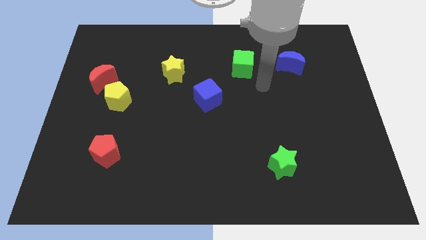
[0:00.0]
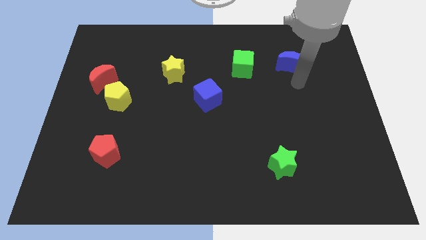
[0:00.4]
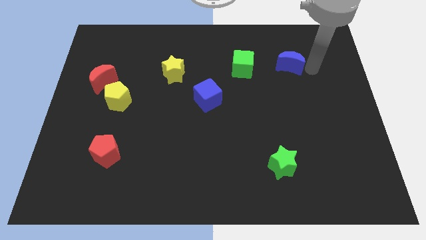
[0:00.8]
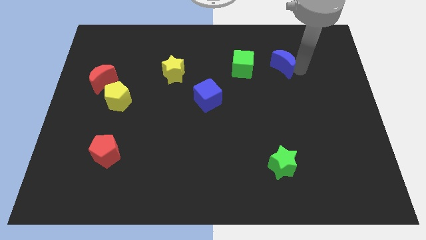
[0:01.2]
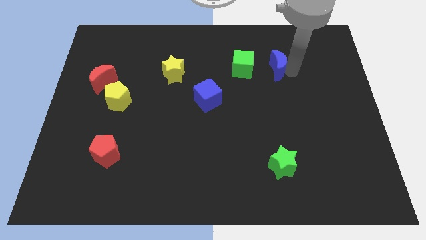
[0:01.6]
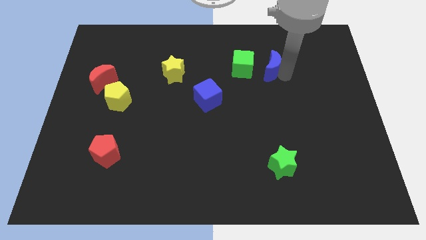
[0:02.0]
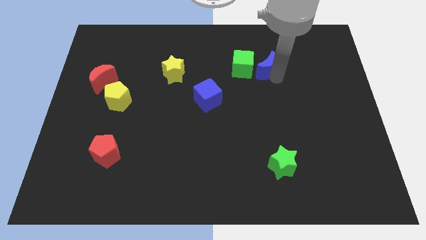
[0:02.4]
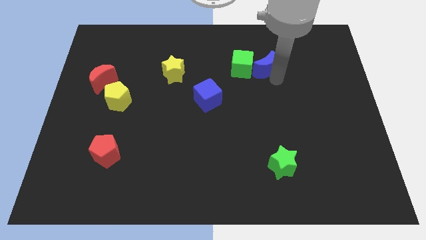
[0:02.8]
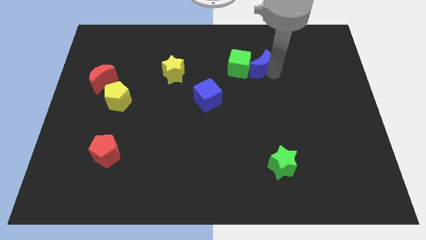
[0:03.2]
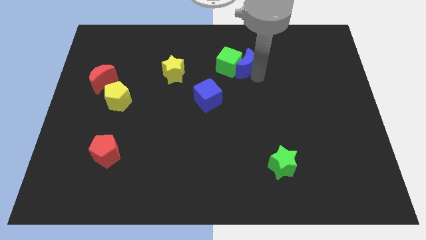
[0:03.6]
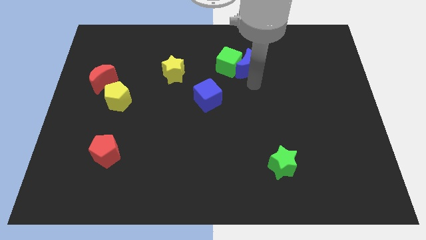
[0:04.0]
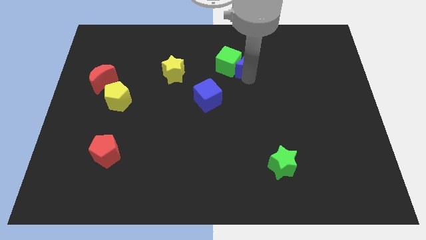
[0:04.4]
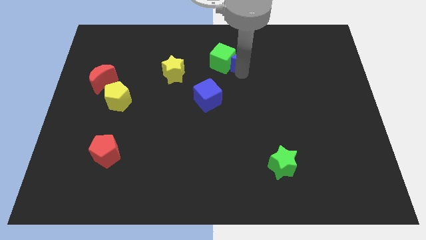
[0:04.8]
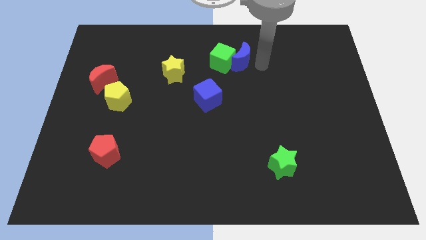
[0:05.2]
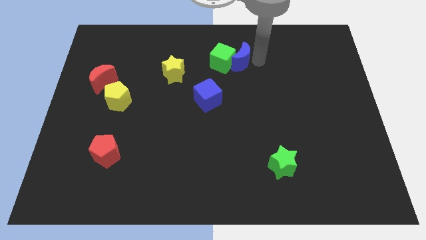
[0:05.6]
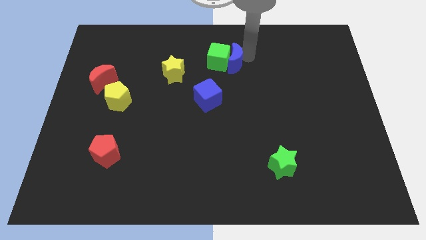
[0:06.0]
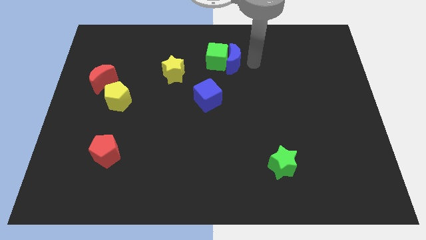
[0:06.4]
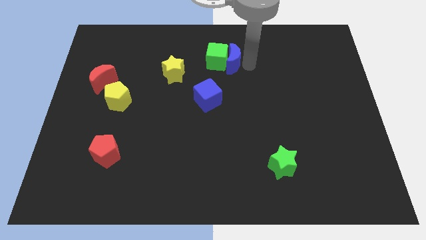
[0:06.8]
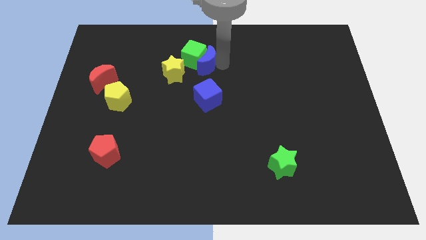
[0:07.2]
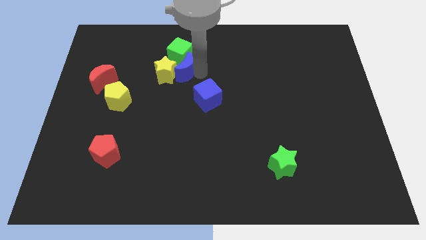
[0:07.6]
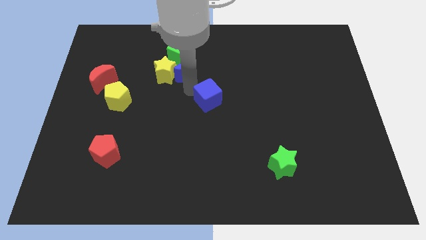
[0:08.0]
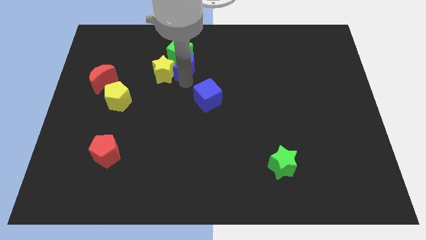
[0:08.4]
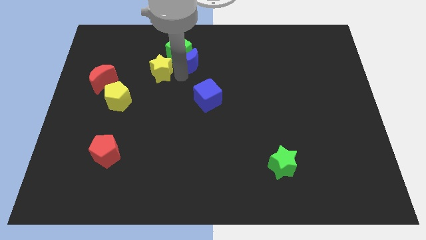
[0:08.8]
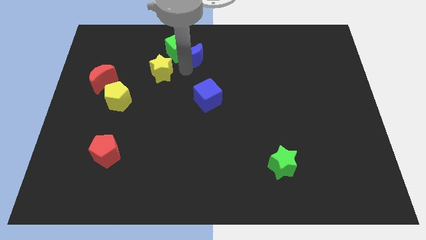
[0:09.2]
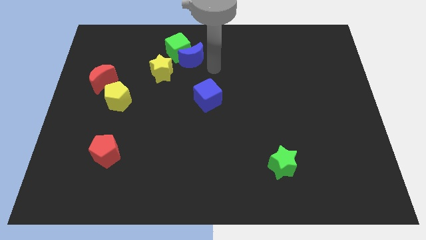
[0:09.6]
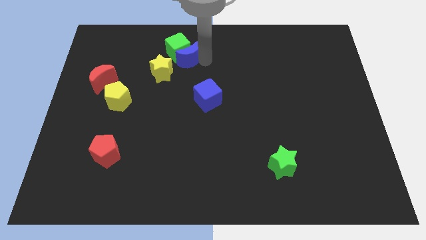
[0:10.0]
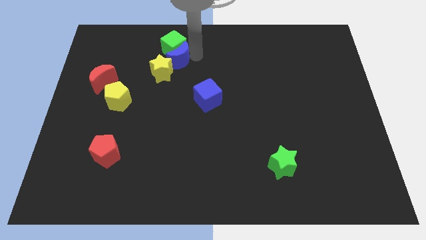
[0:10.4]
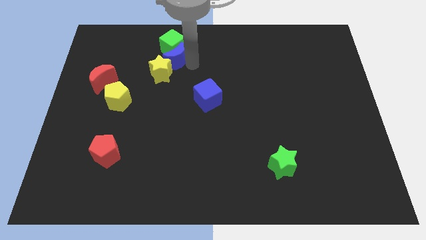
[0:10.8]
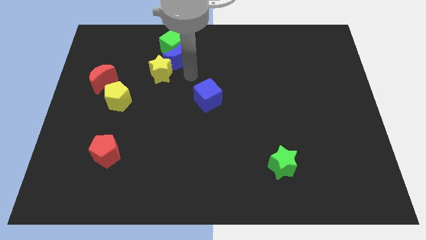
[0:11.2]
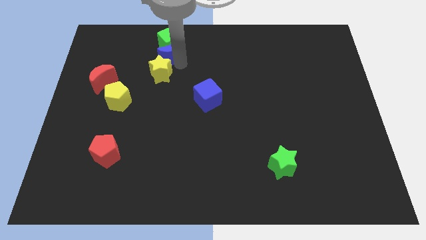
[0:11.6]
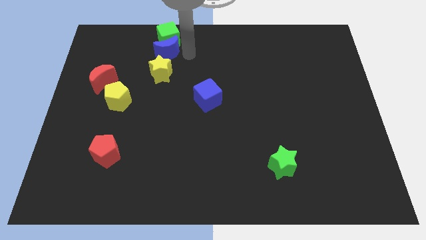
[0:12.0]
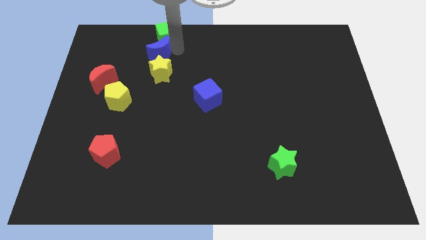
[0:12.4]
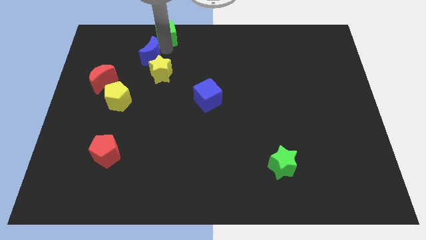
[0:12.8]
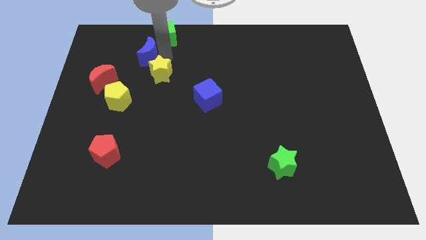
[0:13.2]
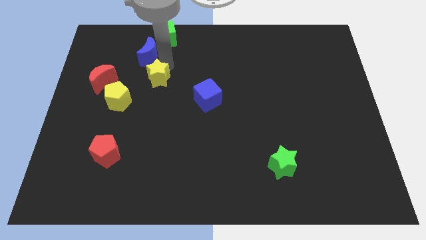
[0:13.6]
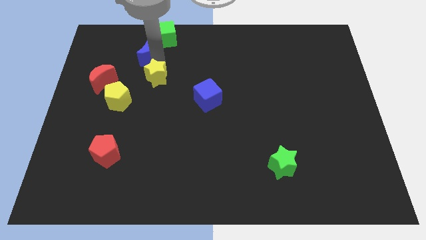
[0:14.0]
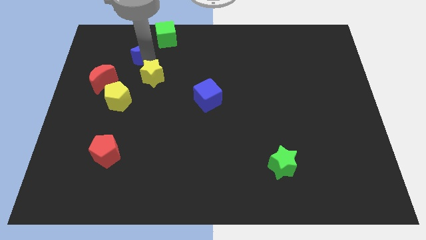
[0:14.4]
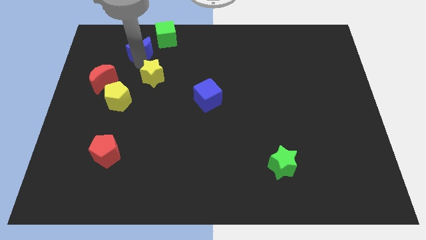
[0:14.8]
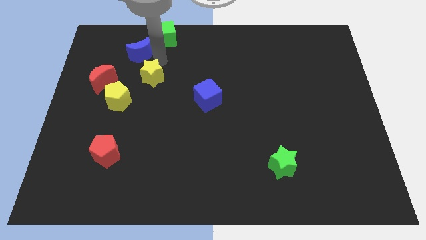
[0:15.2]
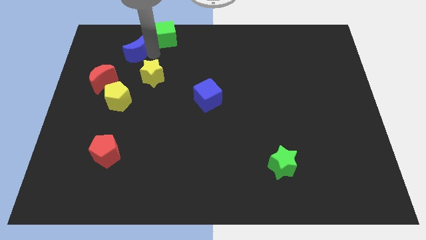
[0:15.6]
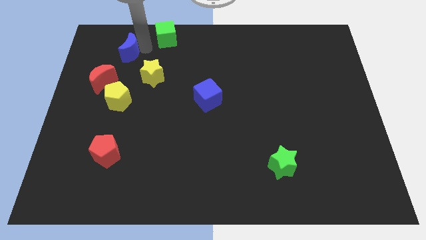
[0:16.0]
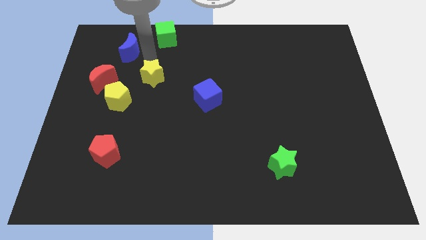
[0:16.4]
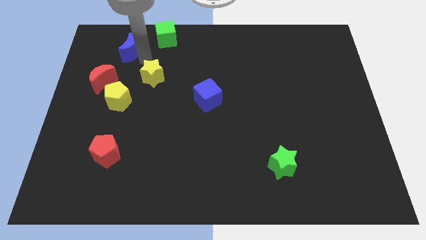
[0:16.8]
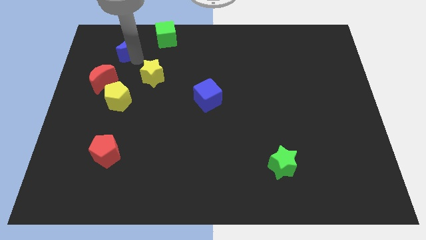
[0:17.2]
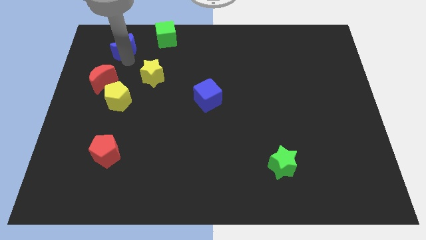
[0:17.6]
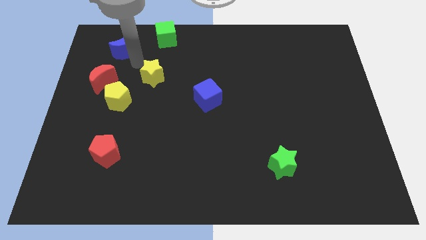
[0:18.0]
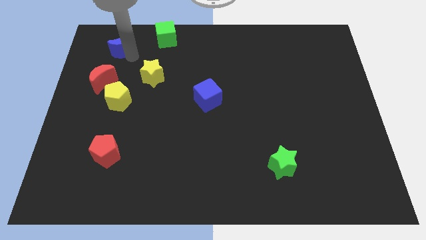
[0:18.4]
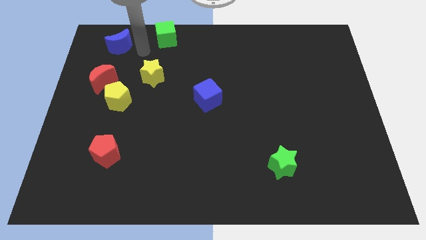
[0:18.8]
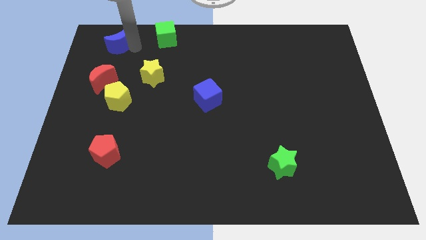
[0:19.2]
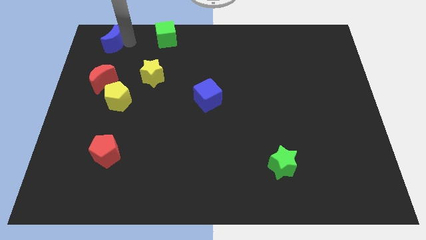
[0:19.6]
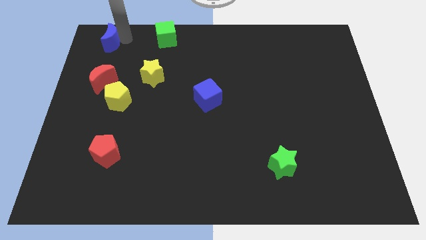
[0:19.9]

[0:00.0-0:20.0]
push the blue moon to the top left

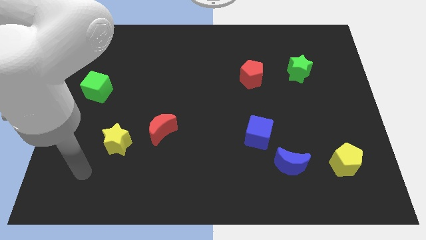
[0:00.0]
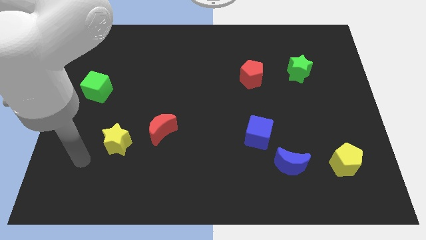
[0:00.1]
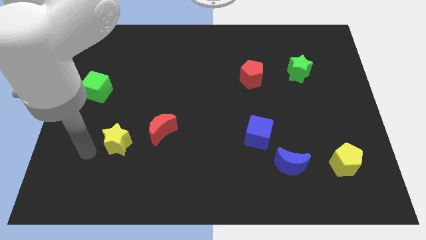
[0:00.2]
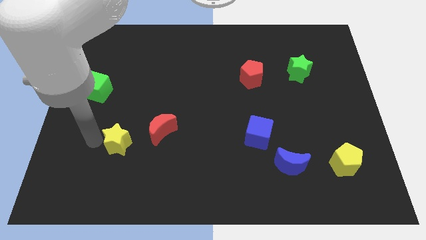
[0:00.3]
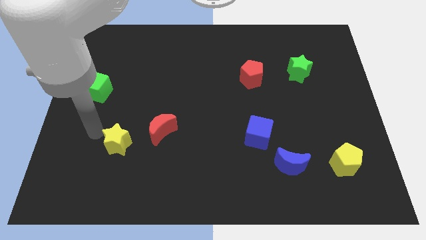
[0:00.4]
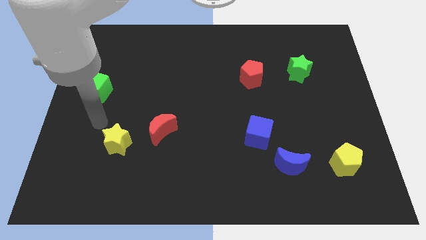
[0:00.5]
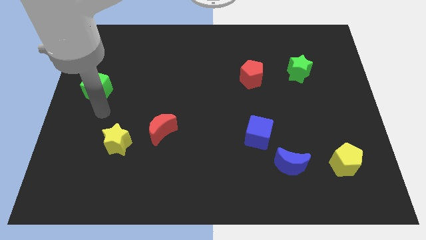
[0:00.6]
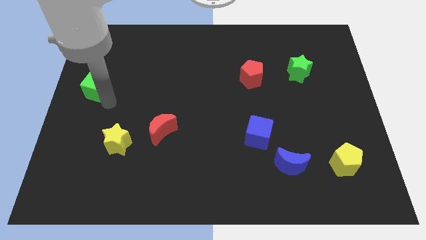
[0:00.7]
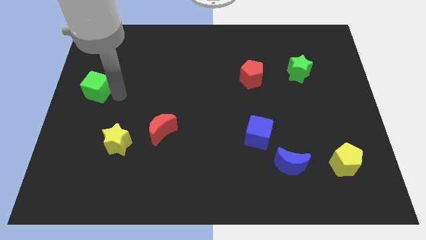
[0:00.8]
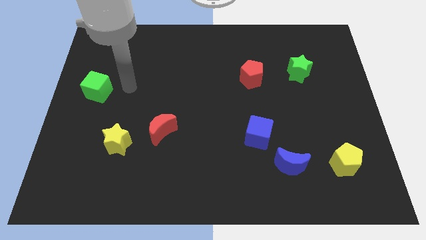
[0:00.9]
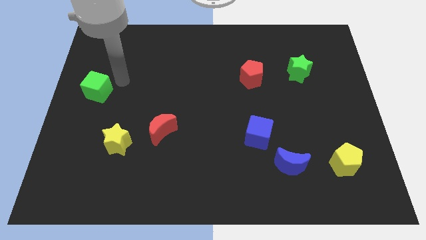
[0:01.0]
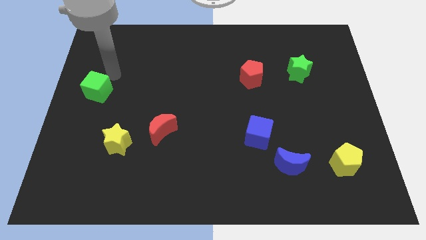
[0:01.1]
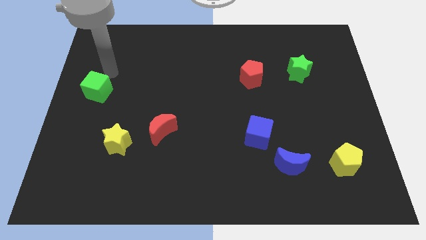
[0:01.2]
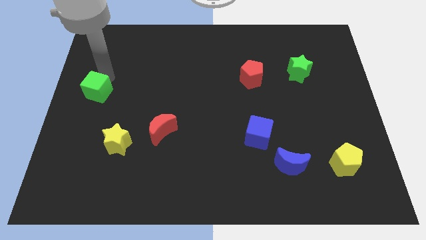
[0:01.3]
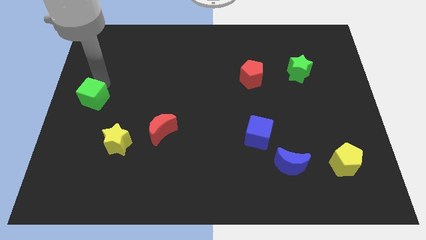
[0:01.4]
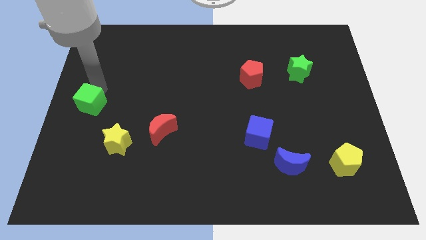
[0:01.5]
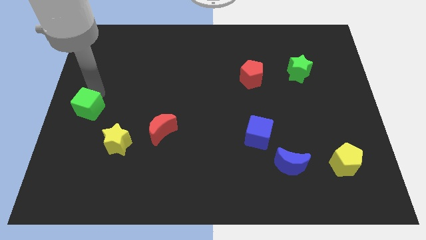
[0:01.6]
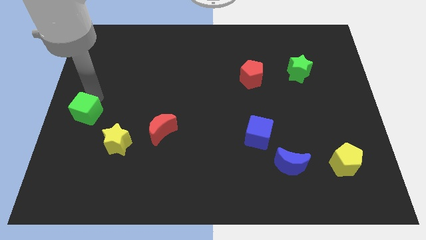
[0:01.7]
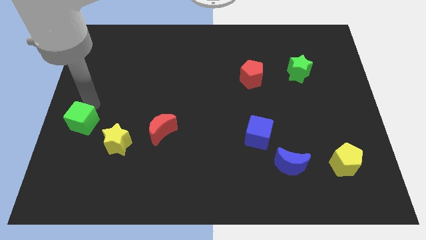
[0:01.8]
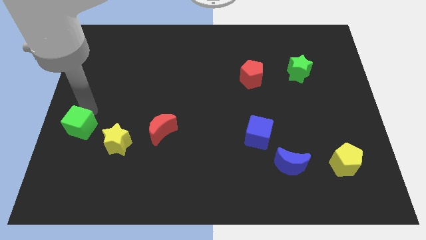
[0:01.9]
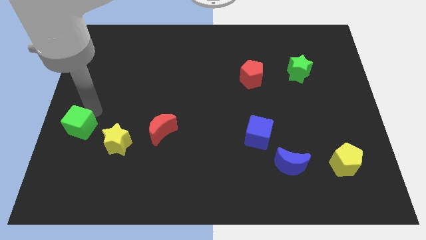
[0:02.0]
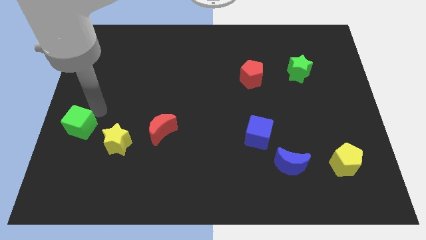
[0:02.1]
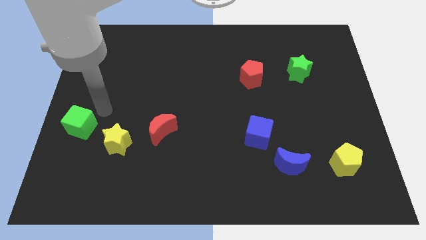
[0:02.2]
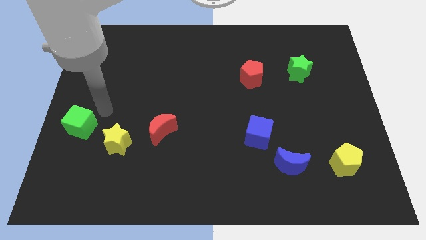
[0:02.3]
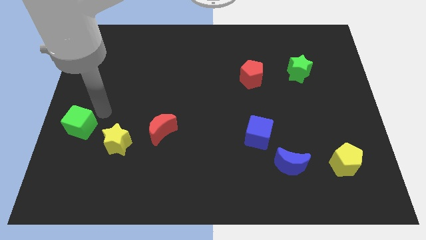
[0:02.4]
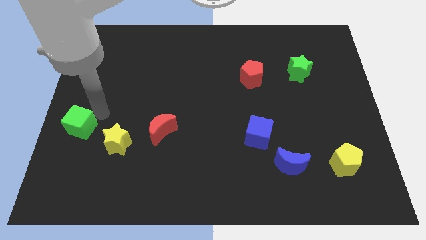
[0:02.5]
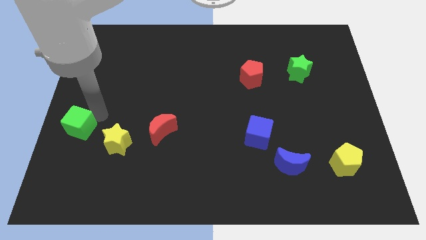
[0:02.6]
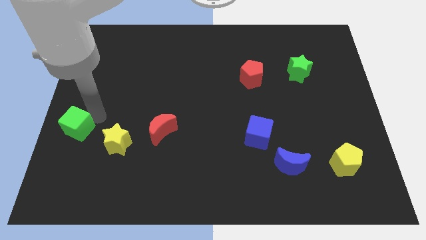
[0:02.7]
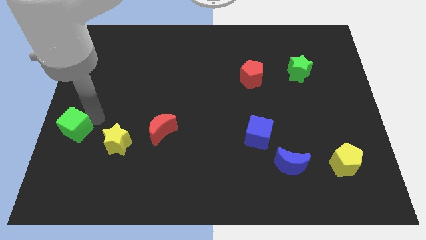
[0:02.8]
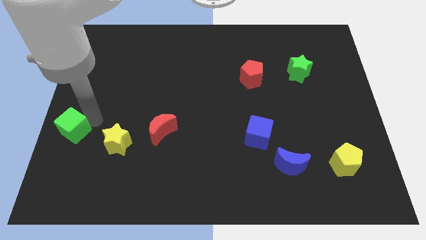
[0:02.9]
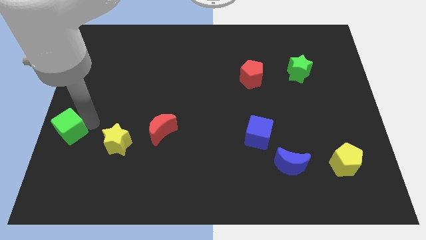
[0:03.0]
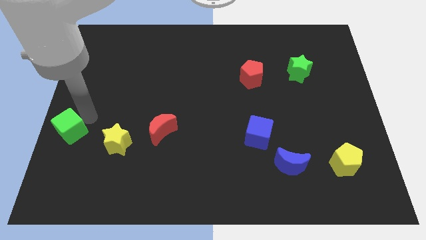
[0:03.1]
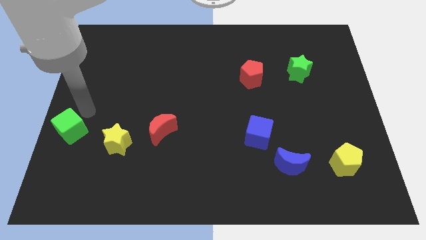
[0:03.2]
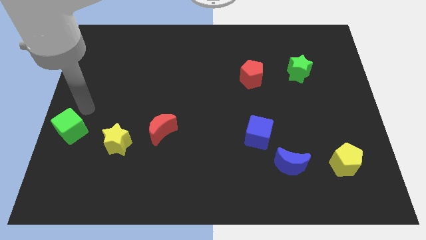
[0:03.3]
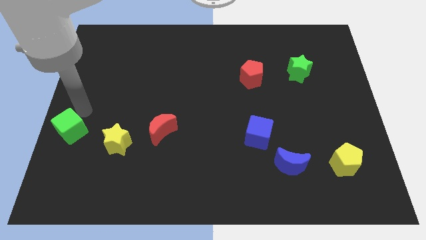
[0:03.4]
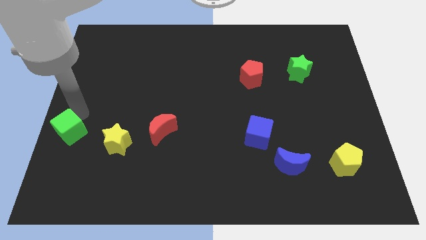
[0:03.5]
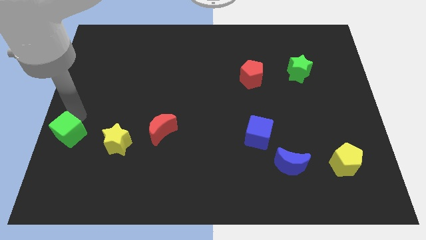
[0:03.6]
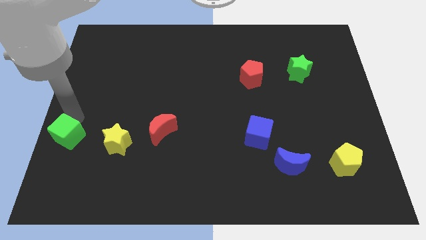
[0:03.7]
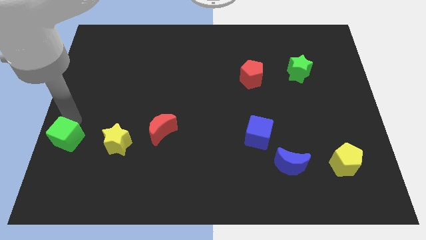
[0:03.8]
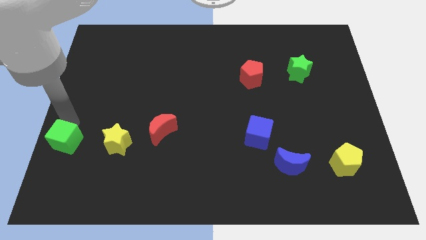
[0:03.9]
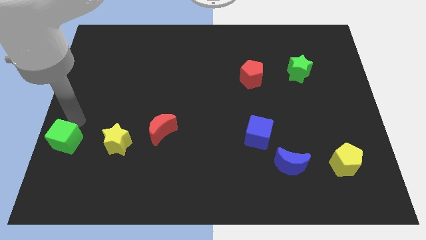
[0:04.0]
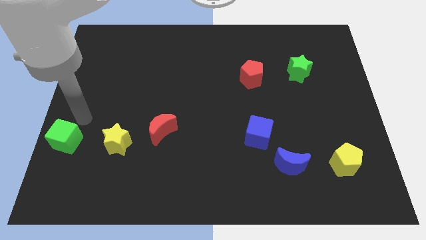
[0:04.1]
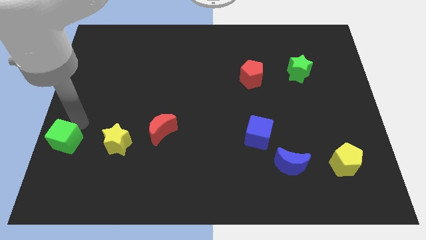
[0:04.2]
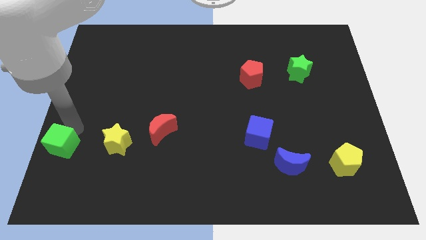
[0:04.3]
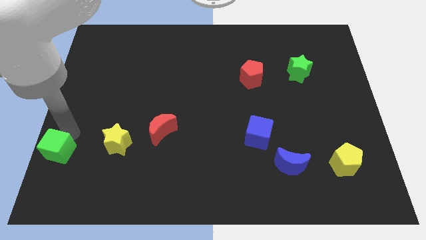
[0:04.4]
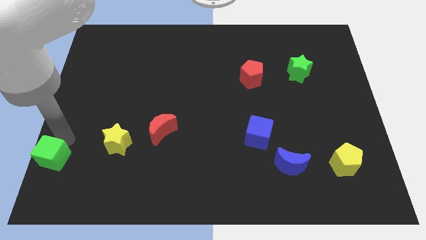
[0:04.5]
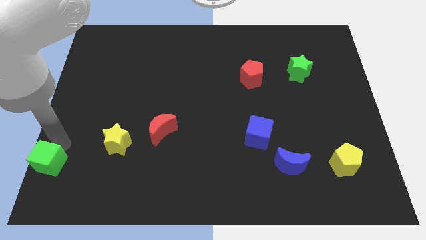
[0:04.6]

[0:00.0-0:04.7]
put the green cube to the bottom left corner
